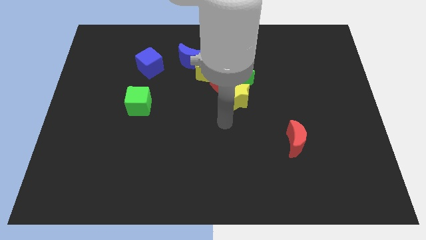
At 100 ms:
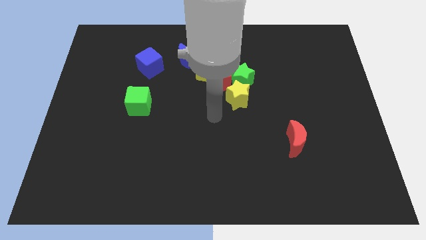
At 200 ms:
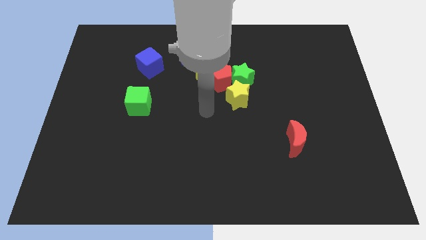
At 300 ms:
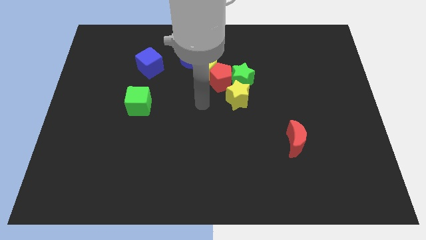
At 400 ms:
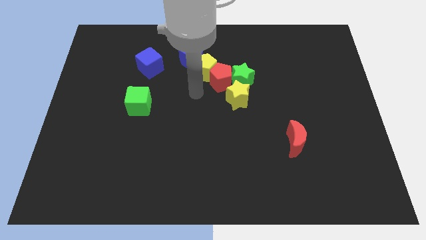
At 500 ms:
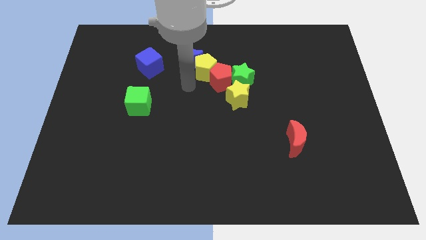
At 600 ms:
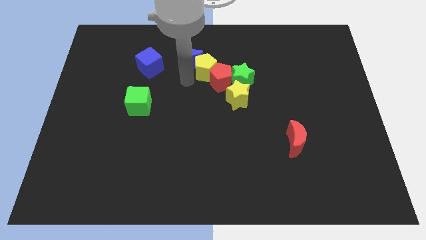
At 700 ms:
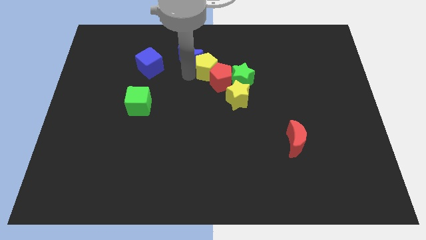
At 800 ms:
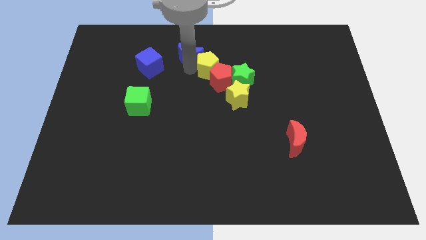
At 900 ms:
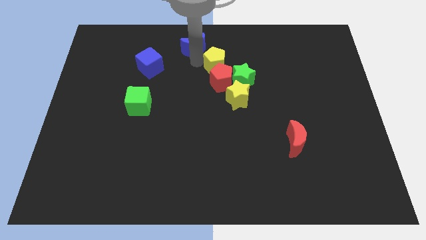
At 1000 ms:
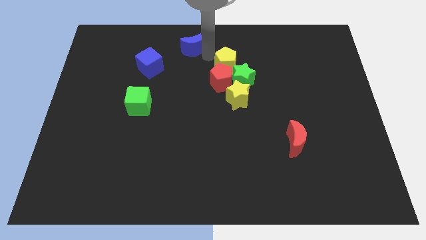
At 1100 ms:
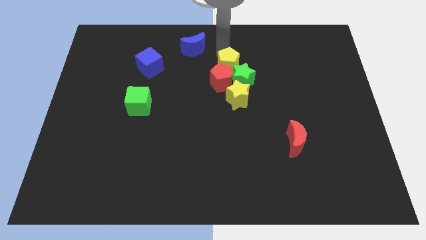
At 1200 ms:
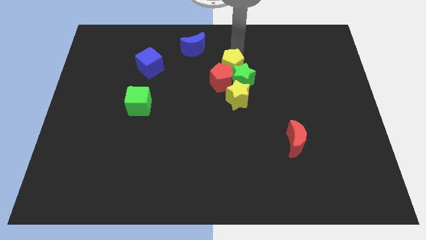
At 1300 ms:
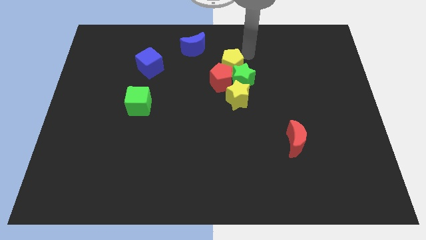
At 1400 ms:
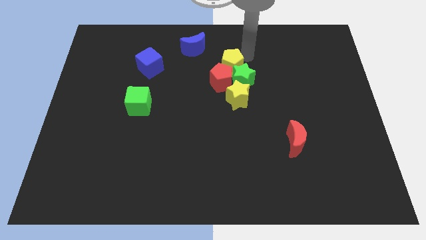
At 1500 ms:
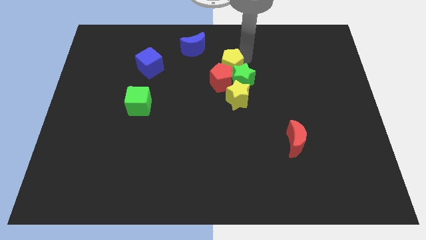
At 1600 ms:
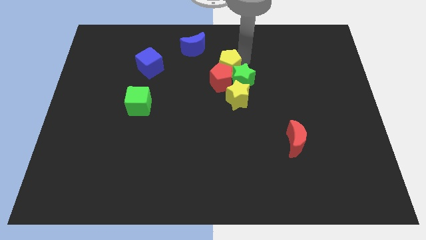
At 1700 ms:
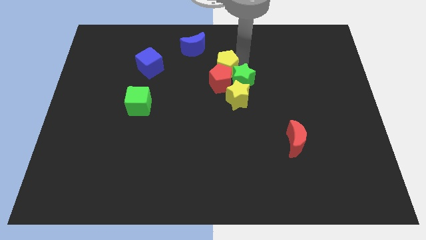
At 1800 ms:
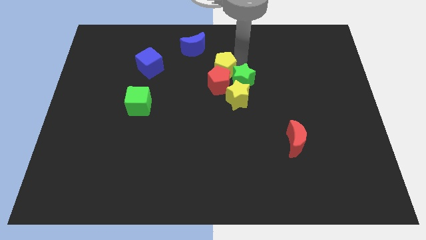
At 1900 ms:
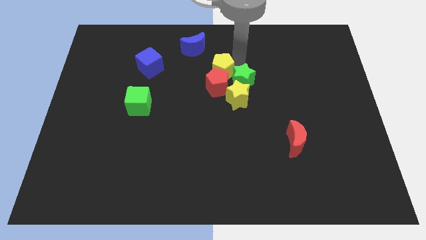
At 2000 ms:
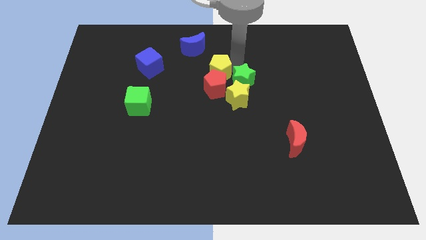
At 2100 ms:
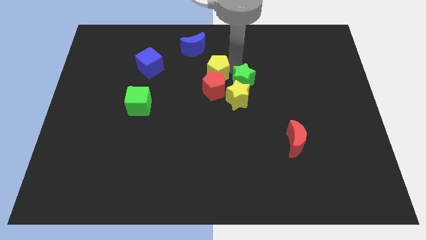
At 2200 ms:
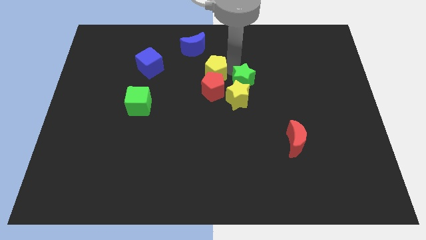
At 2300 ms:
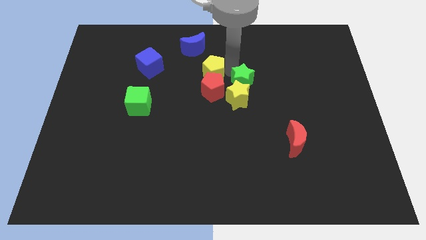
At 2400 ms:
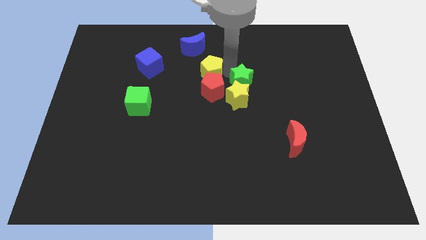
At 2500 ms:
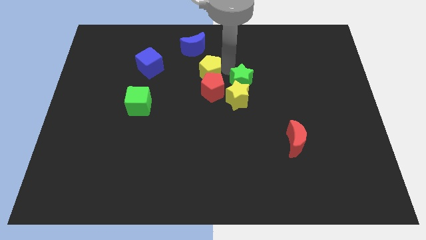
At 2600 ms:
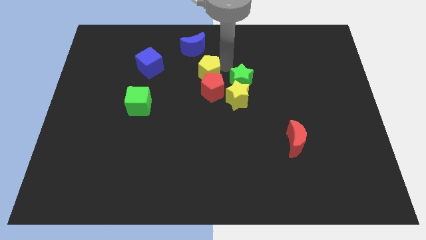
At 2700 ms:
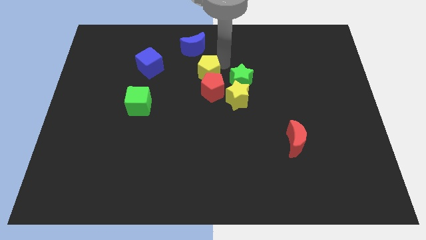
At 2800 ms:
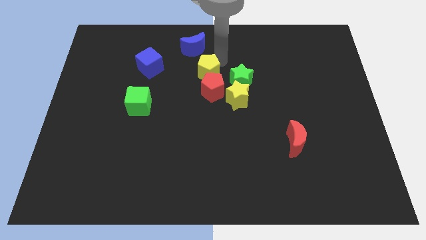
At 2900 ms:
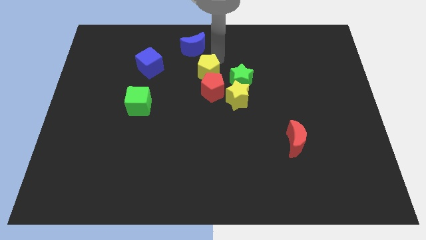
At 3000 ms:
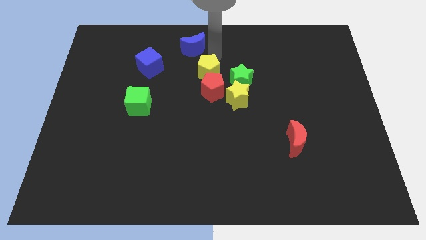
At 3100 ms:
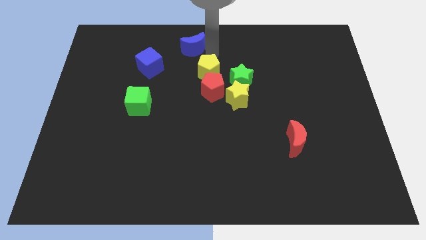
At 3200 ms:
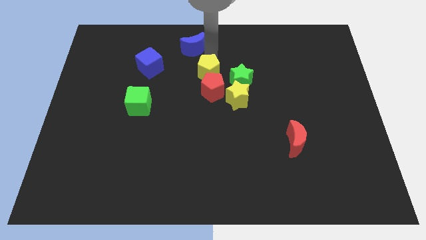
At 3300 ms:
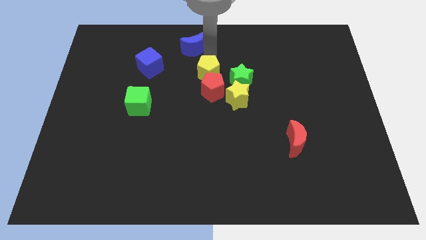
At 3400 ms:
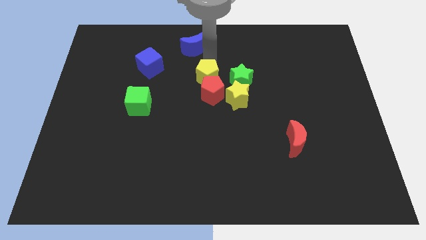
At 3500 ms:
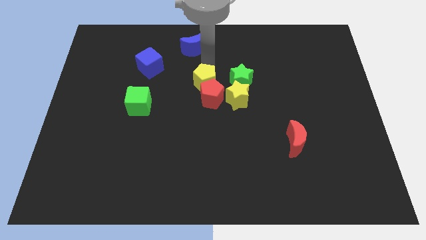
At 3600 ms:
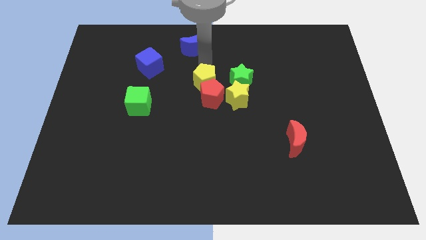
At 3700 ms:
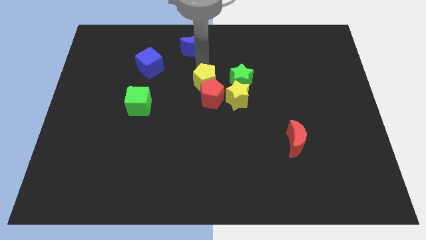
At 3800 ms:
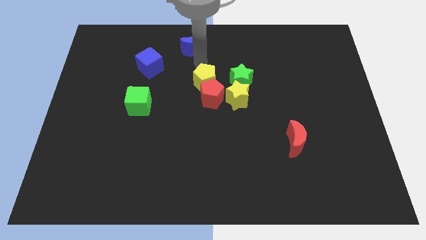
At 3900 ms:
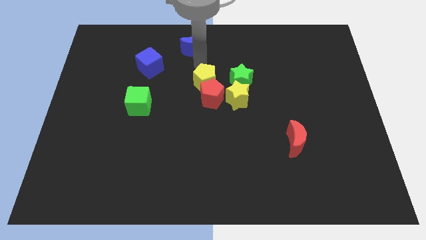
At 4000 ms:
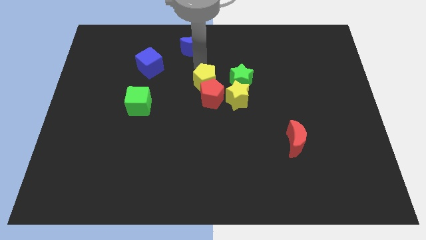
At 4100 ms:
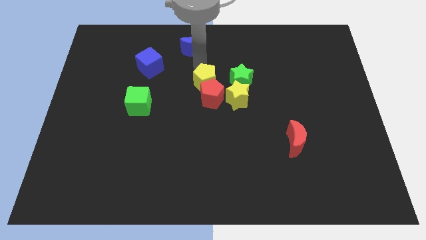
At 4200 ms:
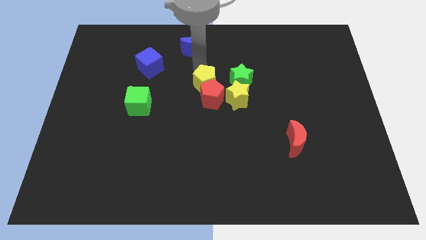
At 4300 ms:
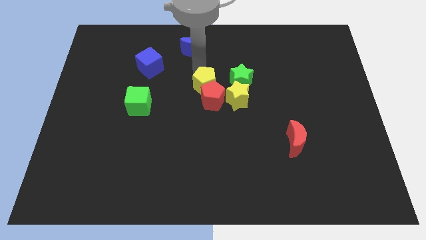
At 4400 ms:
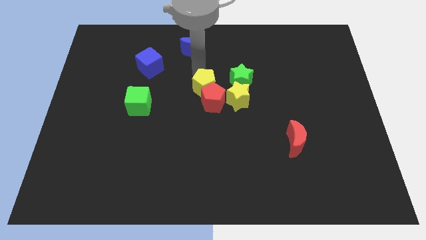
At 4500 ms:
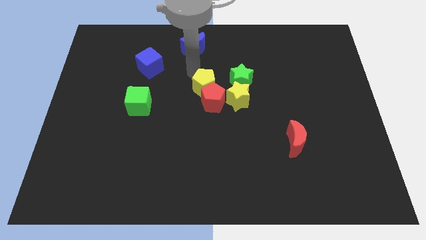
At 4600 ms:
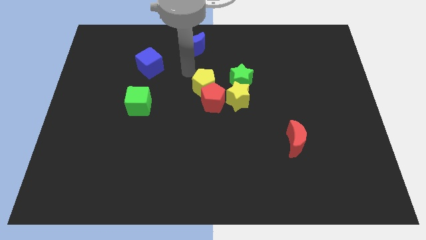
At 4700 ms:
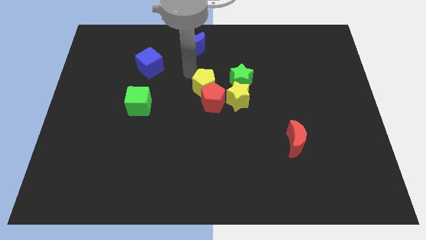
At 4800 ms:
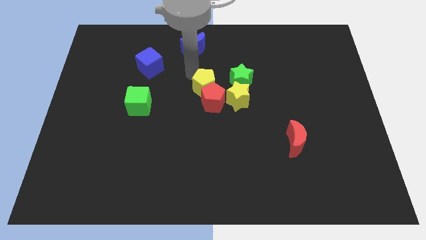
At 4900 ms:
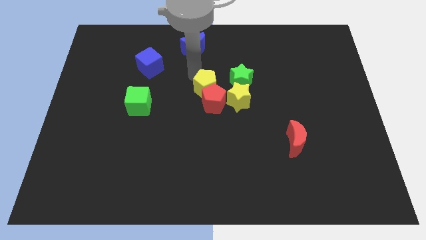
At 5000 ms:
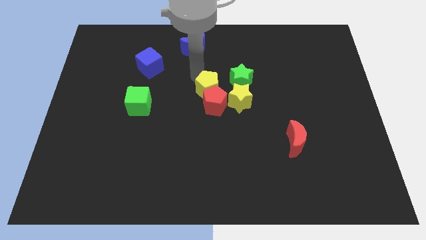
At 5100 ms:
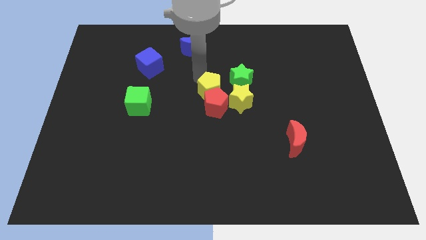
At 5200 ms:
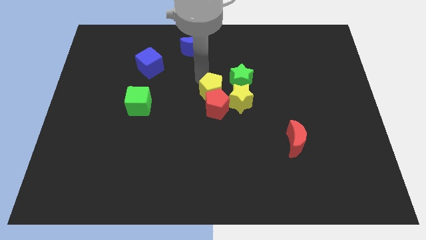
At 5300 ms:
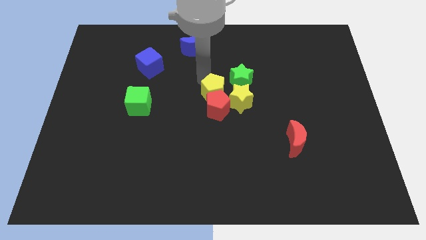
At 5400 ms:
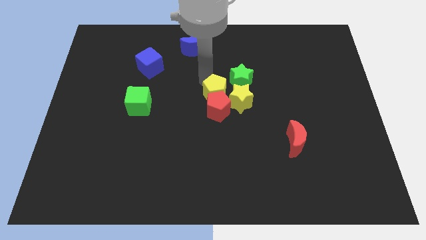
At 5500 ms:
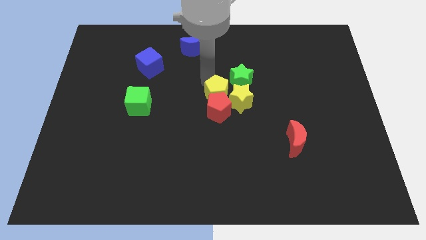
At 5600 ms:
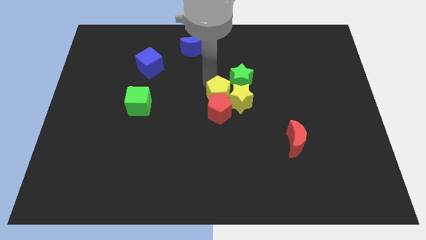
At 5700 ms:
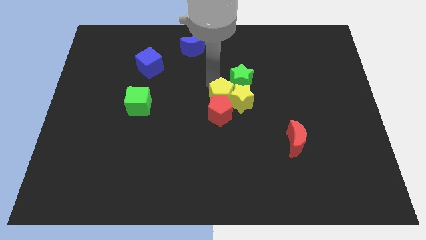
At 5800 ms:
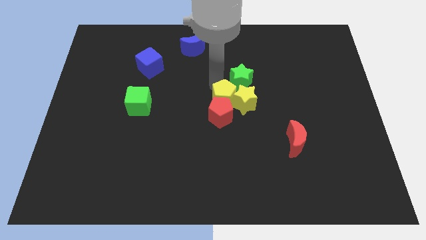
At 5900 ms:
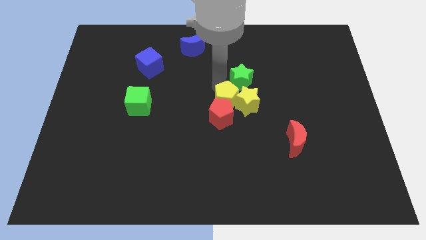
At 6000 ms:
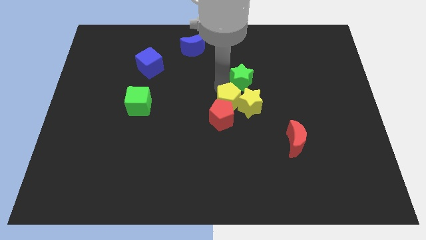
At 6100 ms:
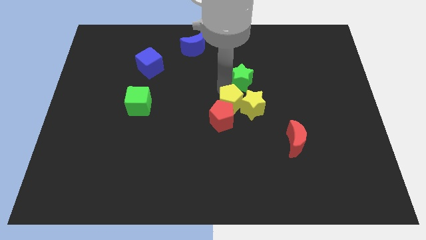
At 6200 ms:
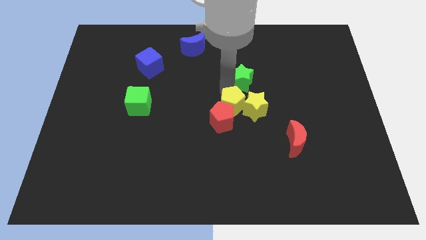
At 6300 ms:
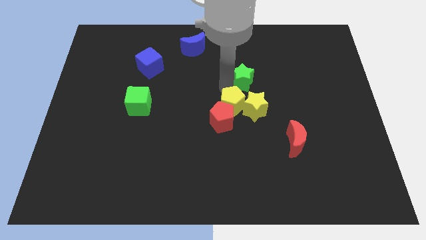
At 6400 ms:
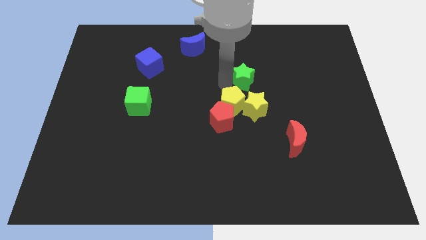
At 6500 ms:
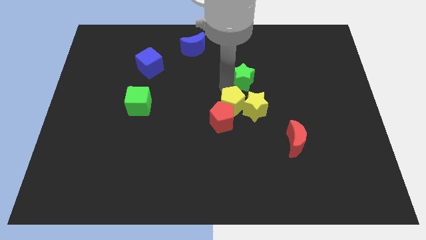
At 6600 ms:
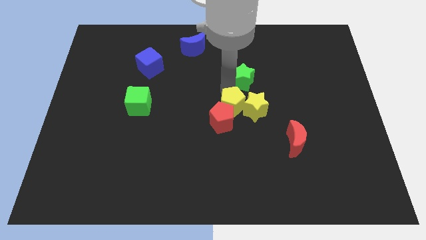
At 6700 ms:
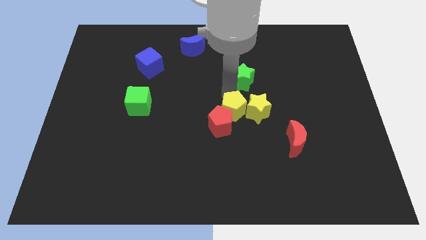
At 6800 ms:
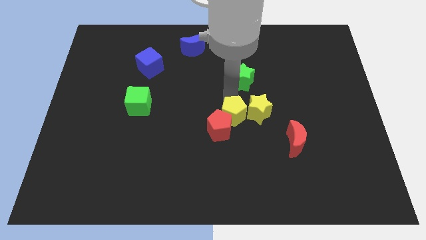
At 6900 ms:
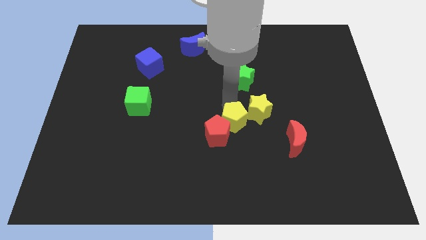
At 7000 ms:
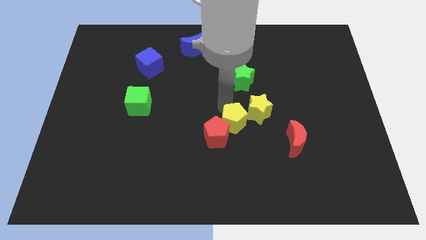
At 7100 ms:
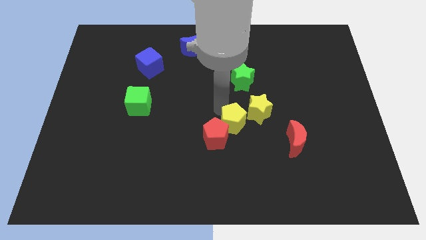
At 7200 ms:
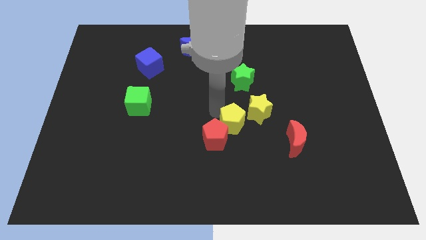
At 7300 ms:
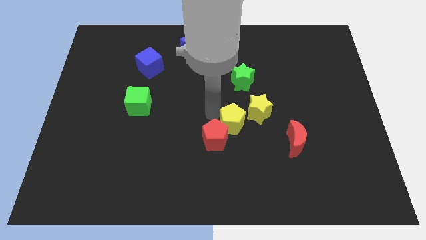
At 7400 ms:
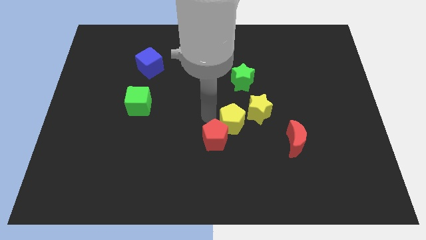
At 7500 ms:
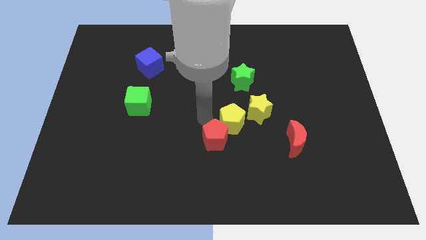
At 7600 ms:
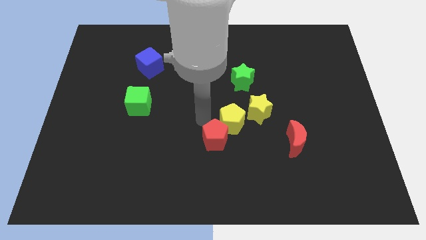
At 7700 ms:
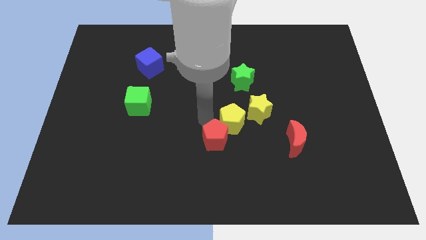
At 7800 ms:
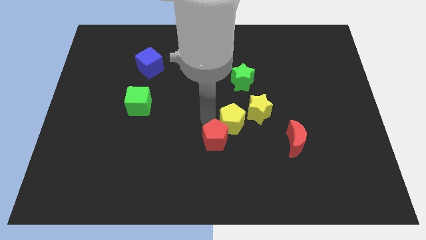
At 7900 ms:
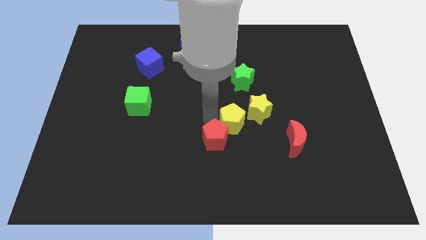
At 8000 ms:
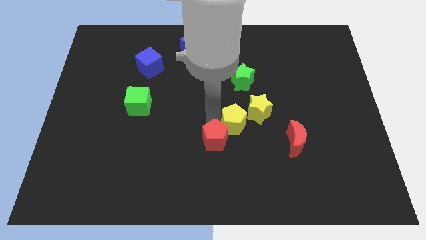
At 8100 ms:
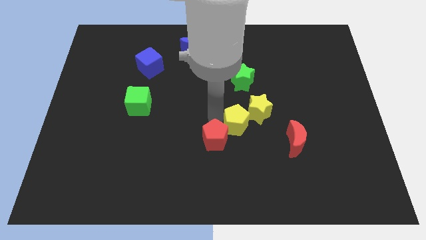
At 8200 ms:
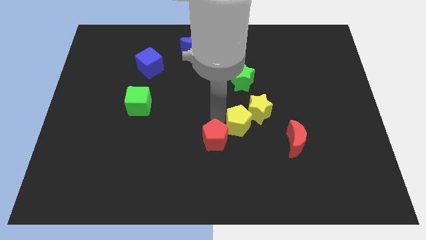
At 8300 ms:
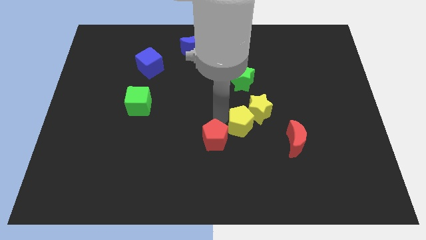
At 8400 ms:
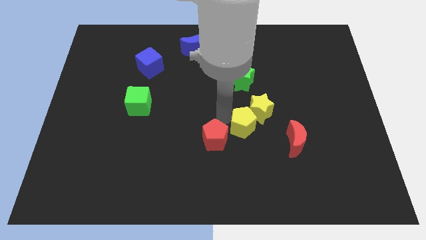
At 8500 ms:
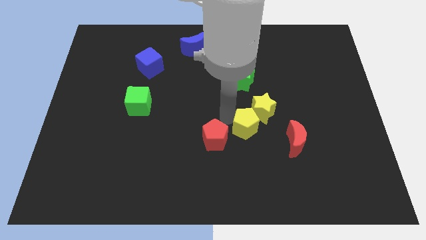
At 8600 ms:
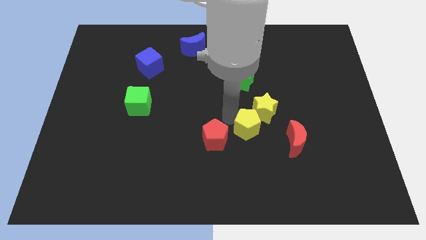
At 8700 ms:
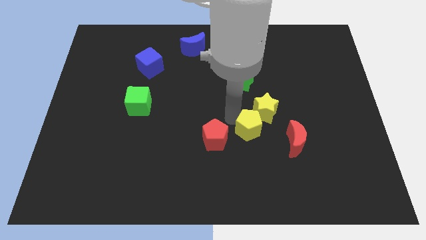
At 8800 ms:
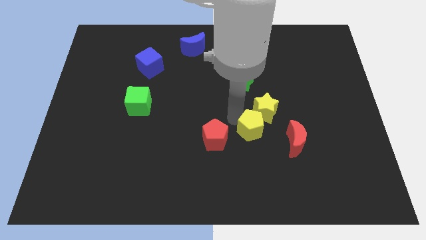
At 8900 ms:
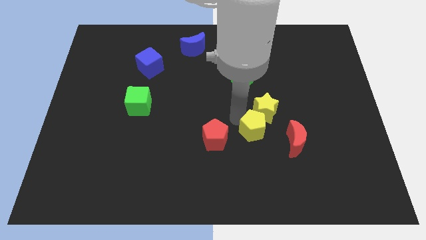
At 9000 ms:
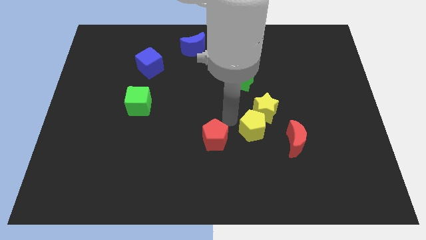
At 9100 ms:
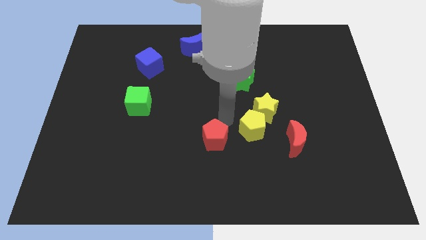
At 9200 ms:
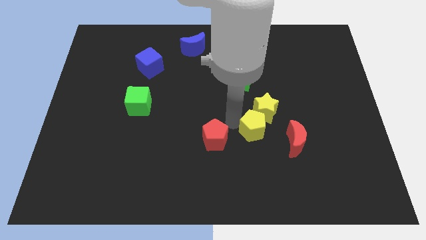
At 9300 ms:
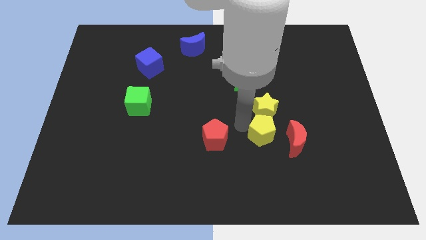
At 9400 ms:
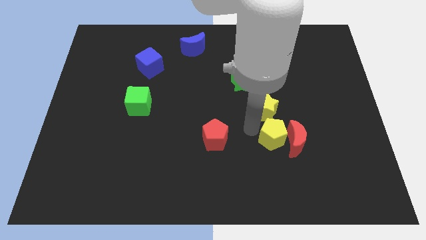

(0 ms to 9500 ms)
put the yellow pentagon towards the red moon
